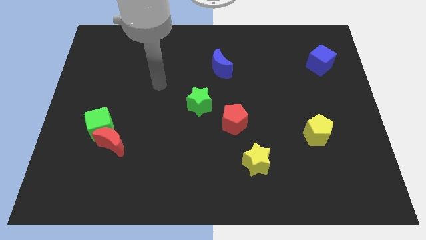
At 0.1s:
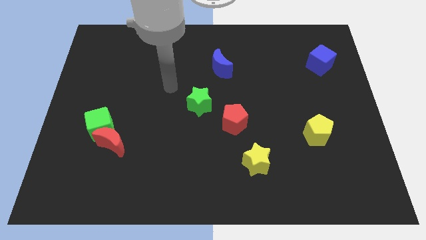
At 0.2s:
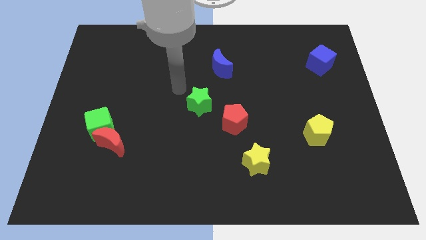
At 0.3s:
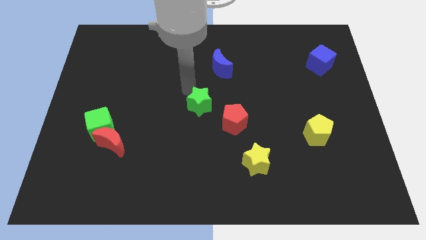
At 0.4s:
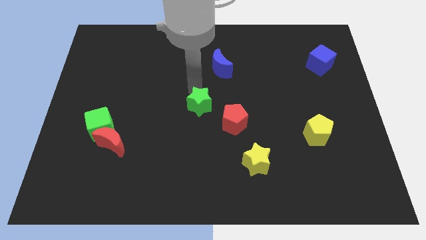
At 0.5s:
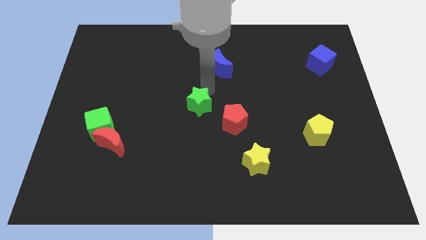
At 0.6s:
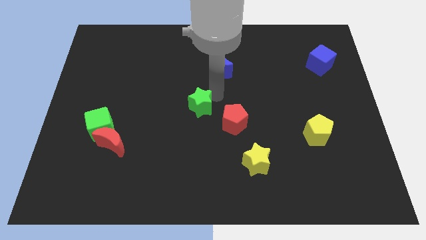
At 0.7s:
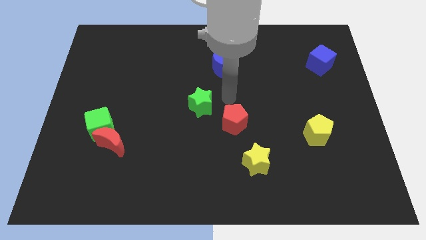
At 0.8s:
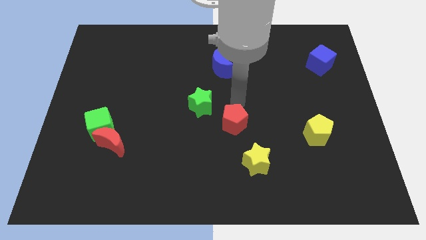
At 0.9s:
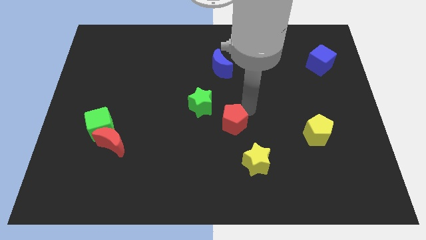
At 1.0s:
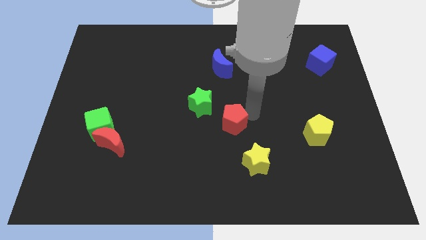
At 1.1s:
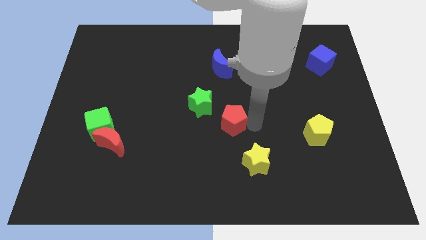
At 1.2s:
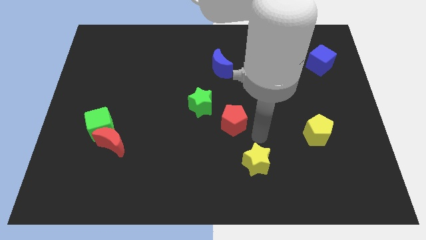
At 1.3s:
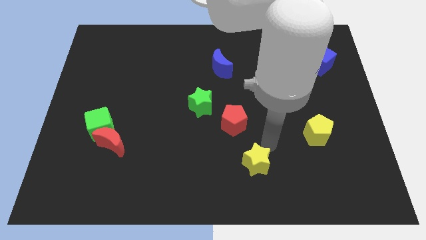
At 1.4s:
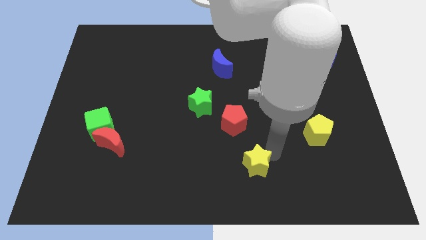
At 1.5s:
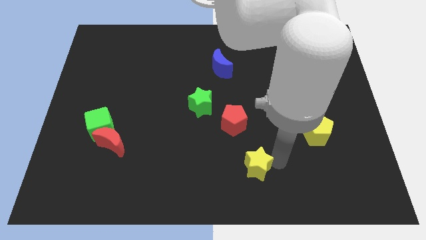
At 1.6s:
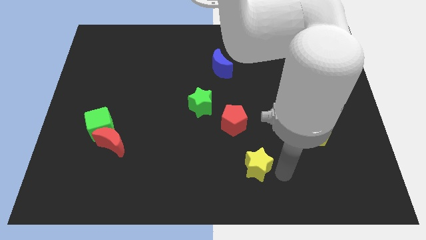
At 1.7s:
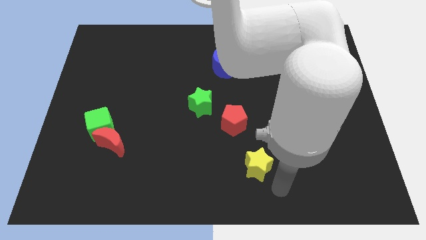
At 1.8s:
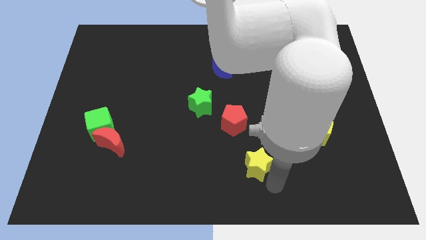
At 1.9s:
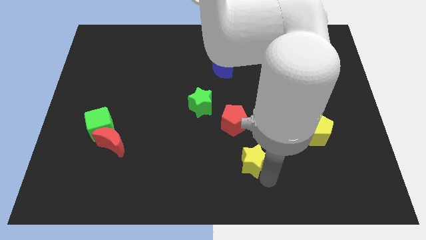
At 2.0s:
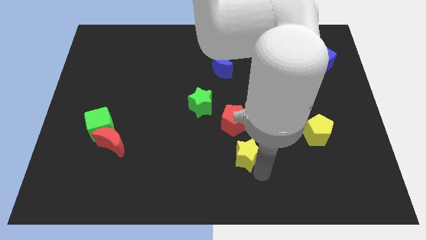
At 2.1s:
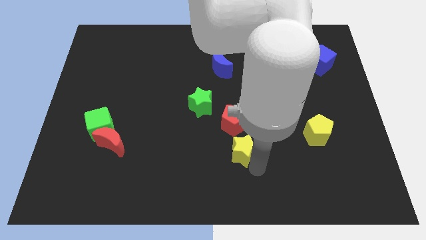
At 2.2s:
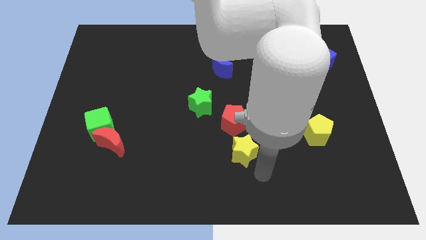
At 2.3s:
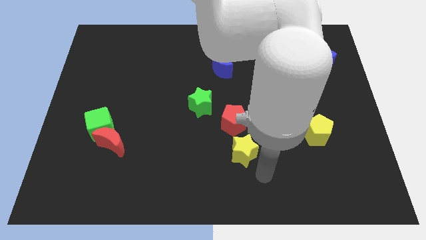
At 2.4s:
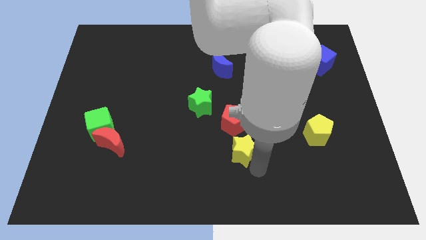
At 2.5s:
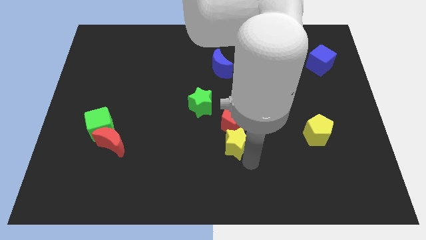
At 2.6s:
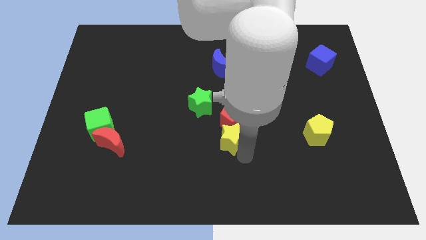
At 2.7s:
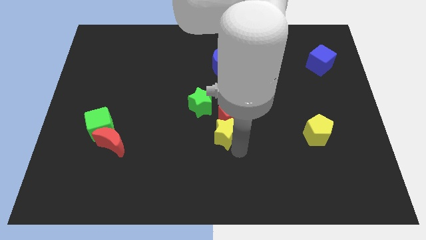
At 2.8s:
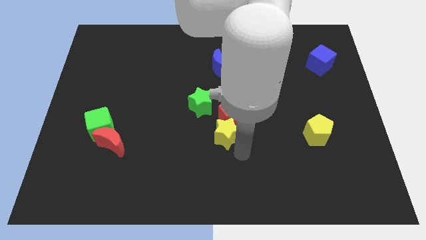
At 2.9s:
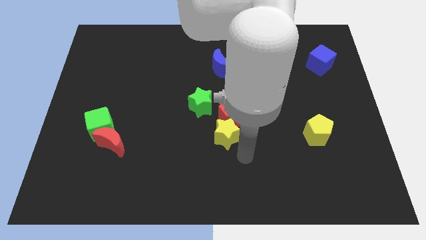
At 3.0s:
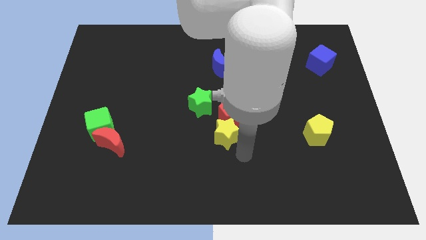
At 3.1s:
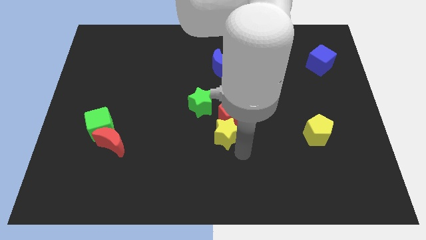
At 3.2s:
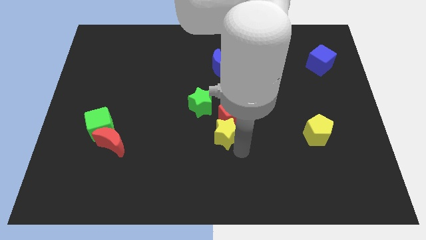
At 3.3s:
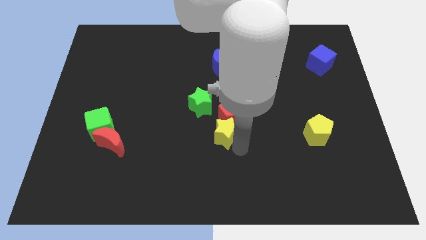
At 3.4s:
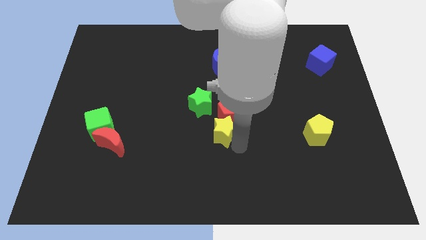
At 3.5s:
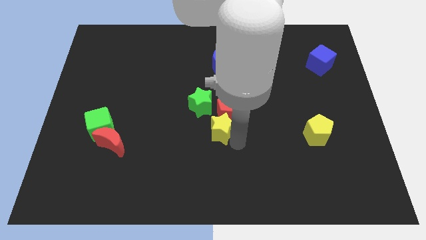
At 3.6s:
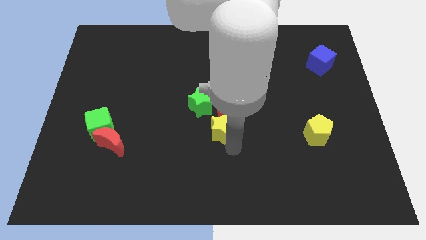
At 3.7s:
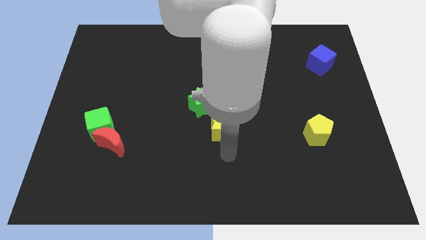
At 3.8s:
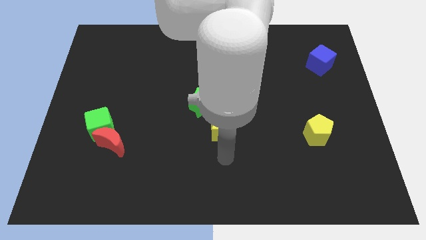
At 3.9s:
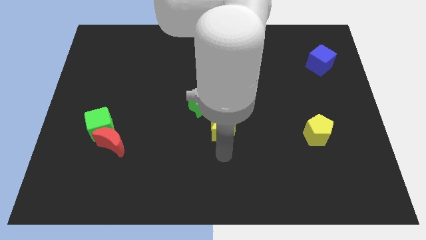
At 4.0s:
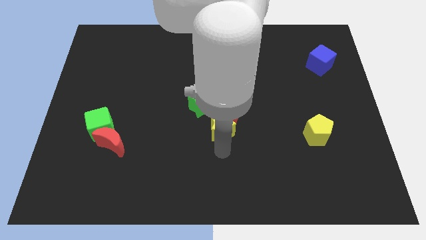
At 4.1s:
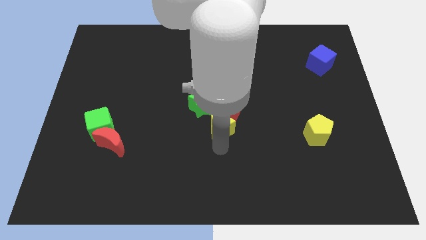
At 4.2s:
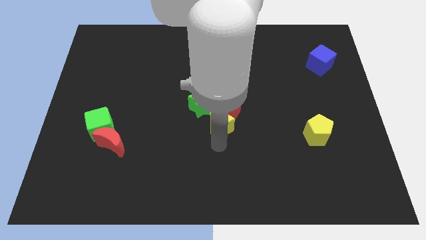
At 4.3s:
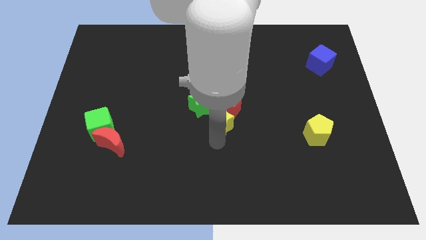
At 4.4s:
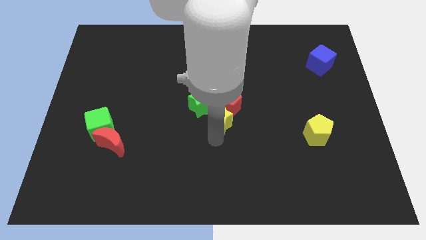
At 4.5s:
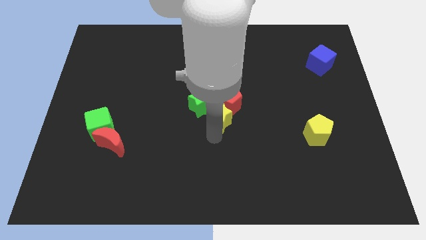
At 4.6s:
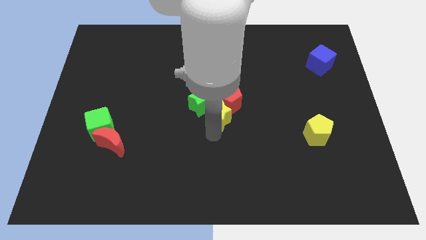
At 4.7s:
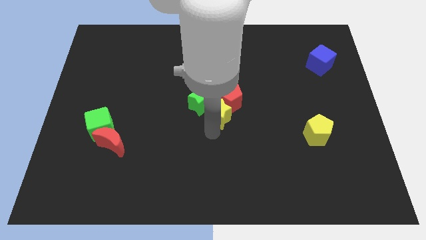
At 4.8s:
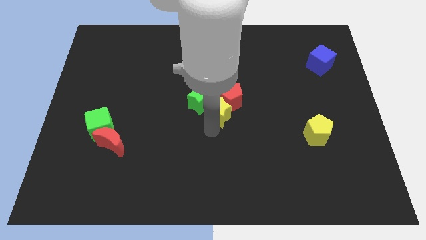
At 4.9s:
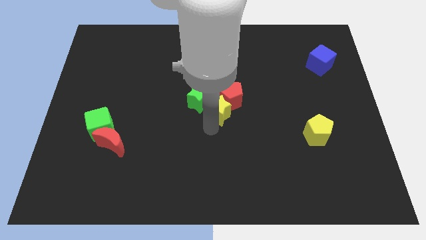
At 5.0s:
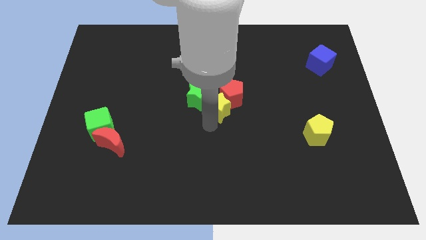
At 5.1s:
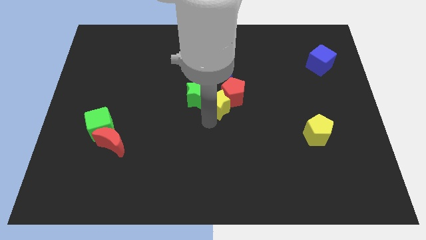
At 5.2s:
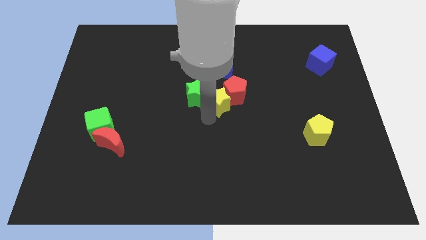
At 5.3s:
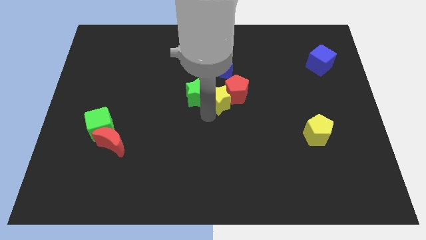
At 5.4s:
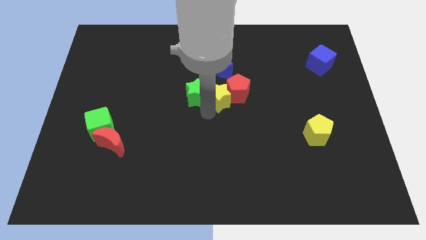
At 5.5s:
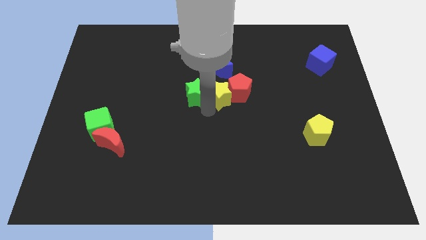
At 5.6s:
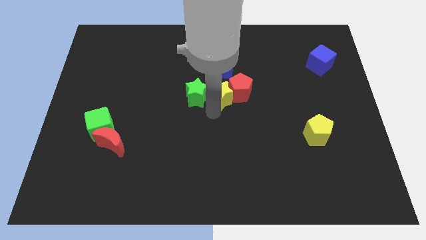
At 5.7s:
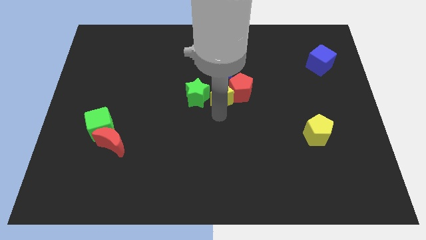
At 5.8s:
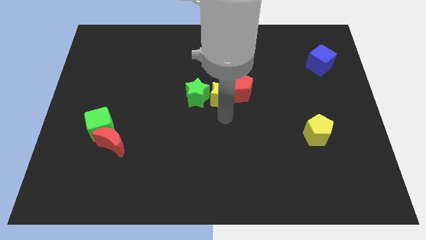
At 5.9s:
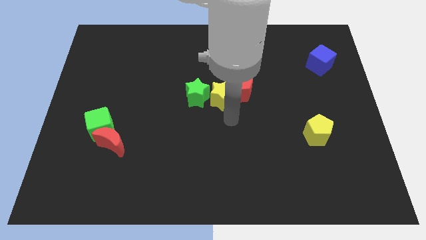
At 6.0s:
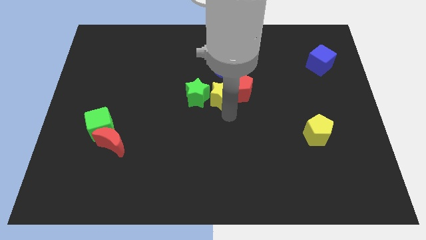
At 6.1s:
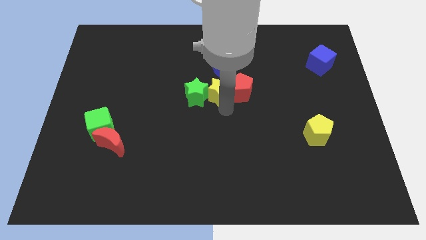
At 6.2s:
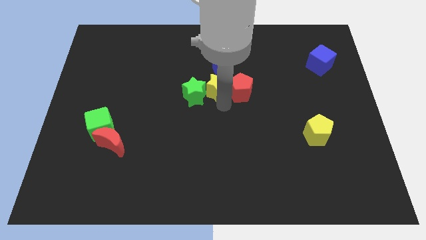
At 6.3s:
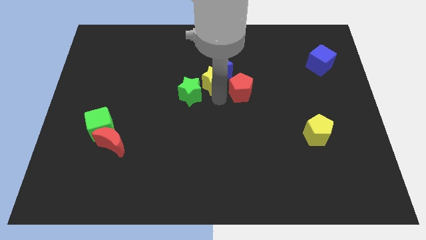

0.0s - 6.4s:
push the yellow star towards the blue moon

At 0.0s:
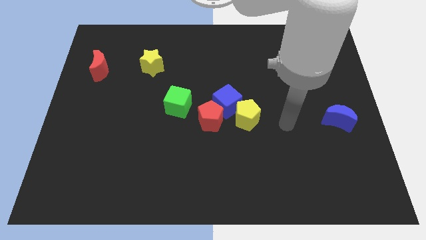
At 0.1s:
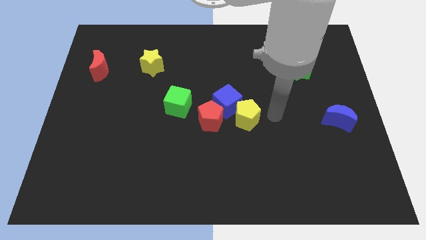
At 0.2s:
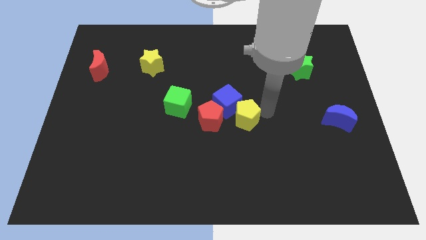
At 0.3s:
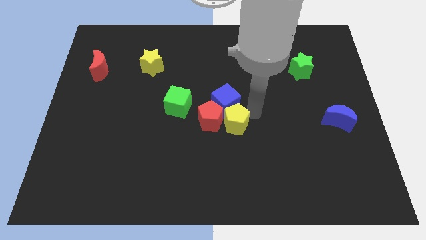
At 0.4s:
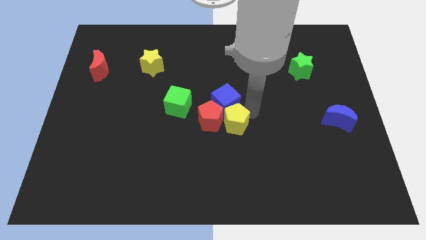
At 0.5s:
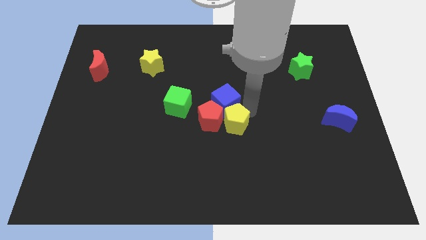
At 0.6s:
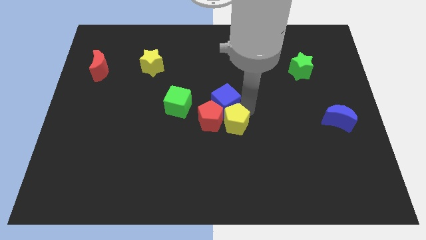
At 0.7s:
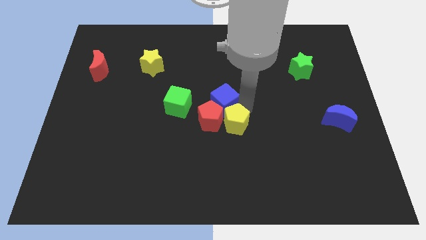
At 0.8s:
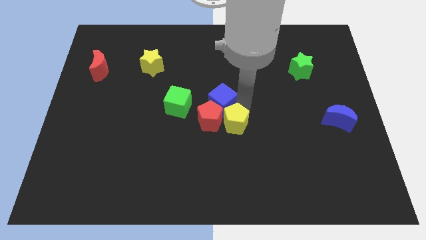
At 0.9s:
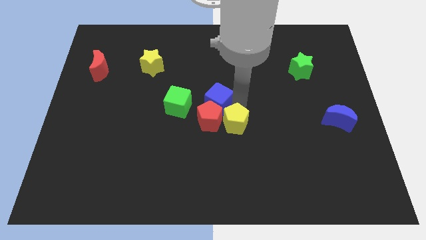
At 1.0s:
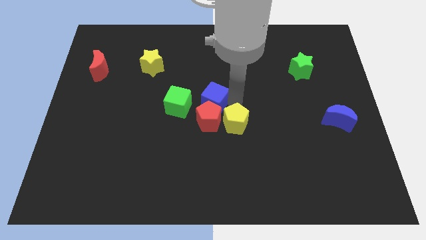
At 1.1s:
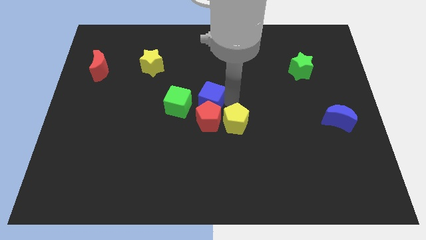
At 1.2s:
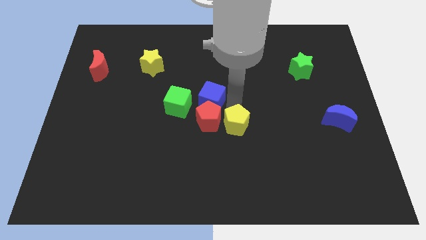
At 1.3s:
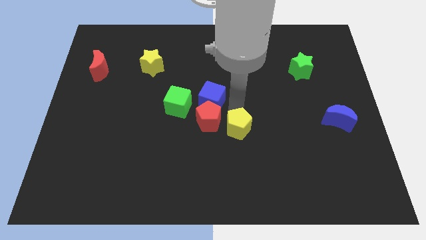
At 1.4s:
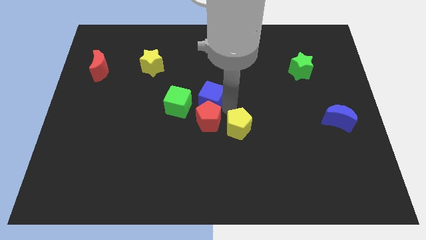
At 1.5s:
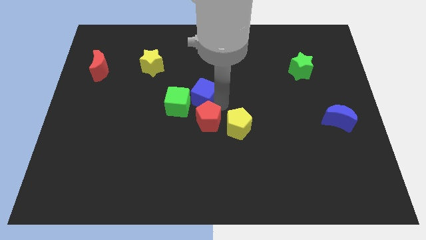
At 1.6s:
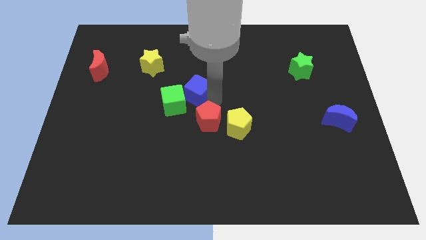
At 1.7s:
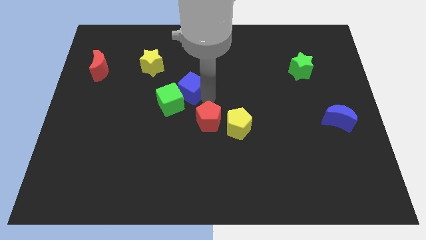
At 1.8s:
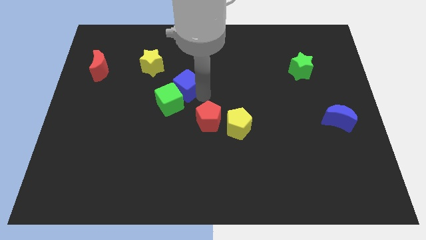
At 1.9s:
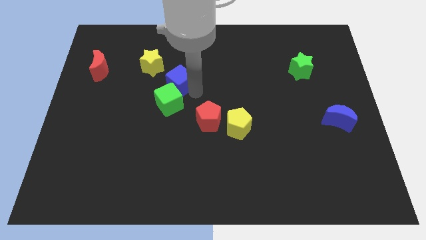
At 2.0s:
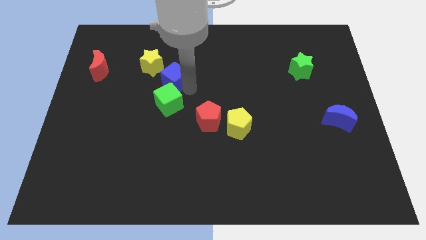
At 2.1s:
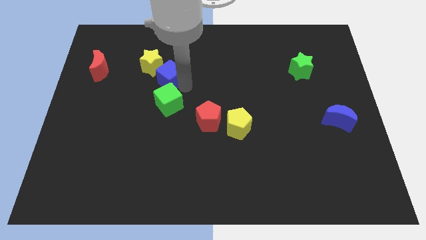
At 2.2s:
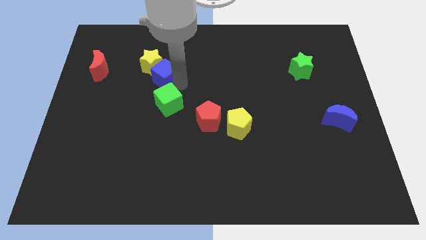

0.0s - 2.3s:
move the blue cube next to the yellow star
